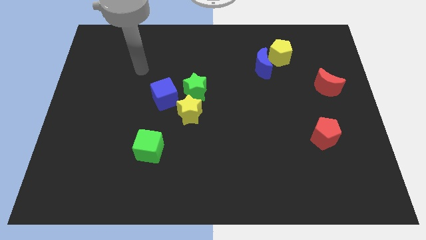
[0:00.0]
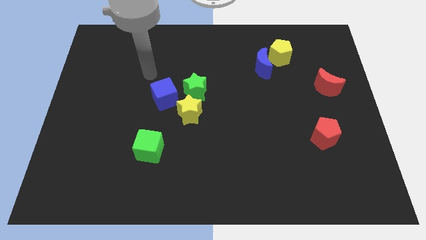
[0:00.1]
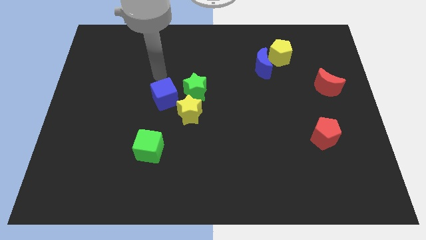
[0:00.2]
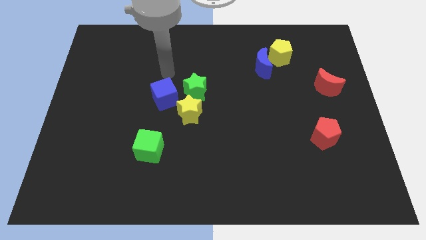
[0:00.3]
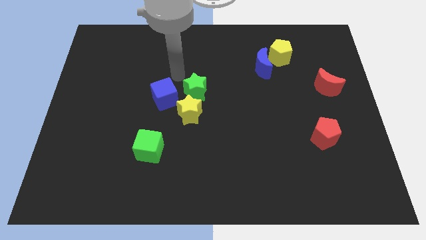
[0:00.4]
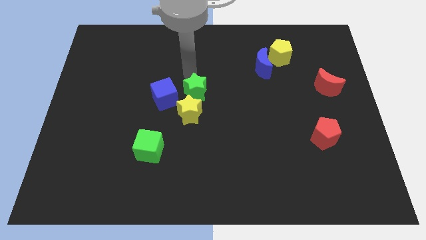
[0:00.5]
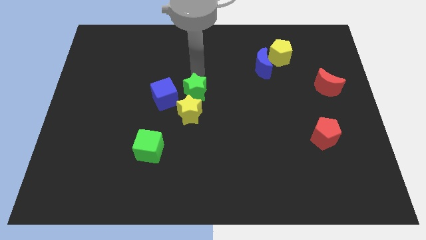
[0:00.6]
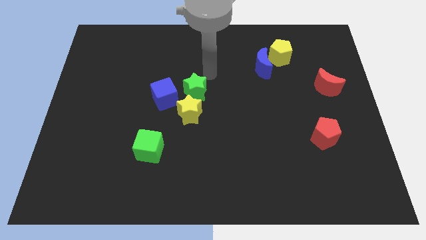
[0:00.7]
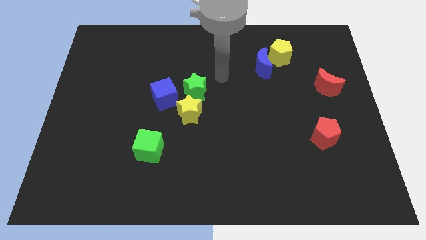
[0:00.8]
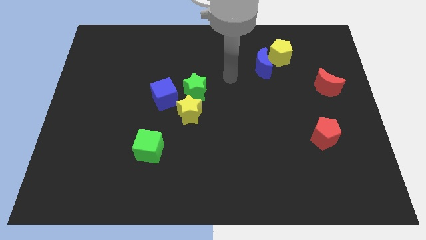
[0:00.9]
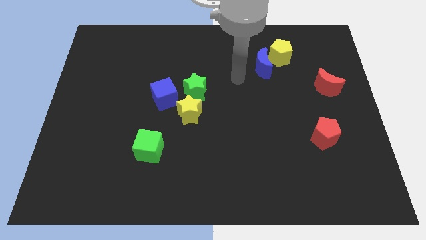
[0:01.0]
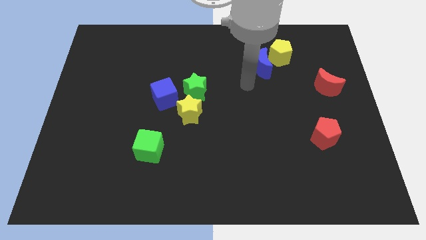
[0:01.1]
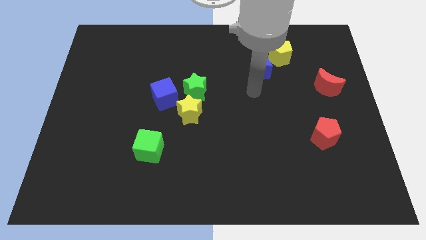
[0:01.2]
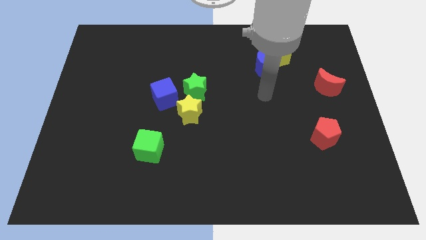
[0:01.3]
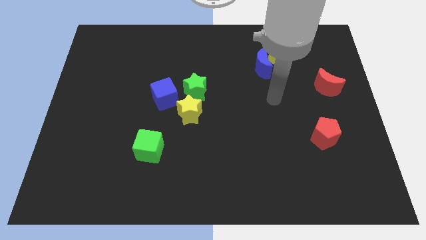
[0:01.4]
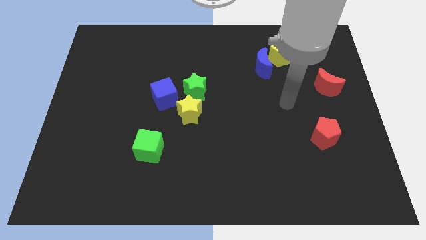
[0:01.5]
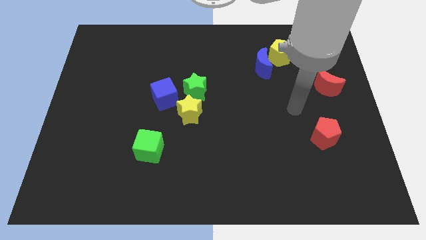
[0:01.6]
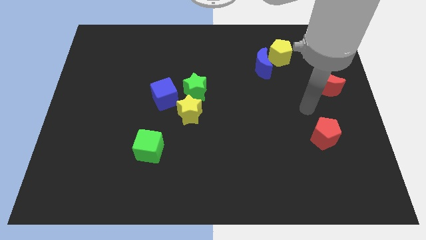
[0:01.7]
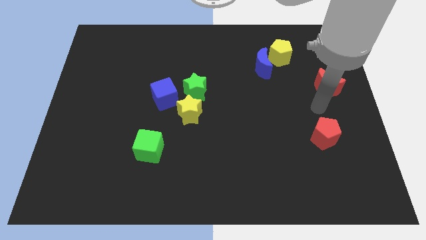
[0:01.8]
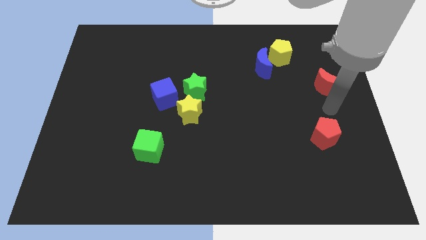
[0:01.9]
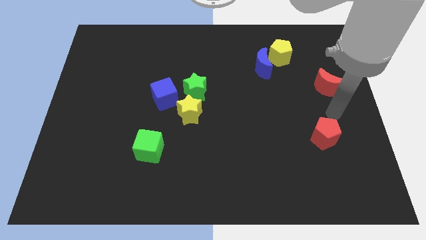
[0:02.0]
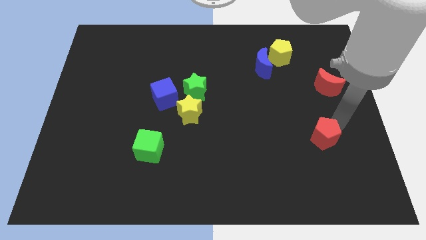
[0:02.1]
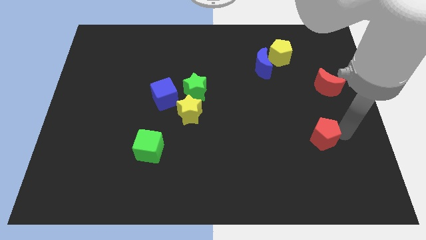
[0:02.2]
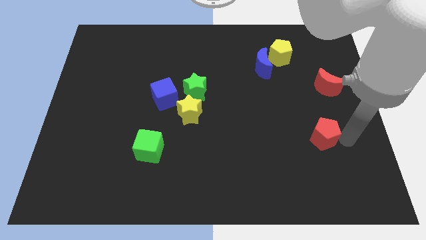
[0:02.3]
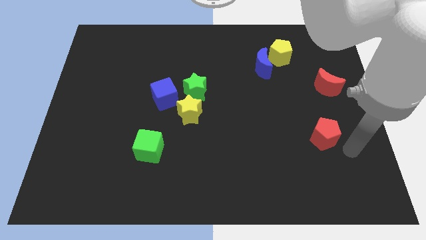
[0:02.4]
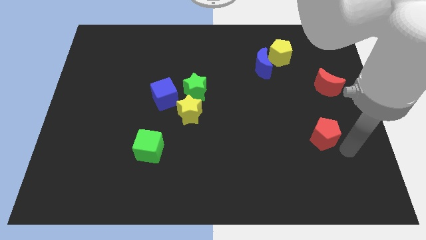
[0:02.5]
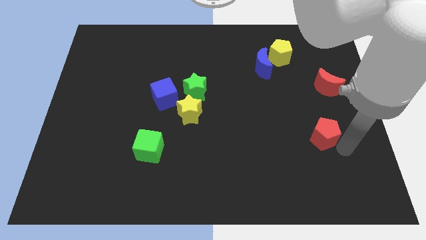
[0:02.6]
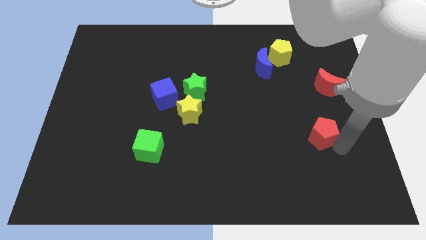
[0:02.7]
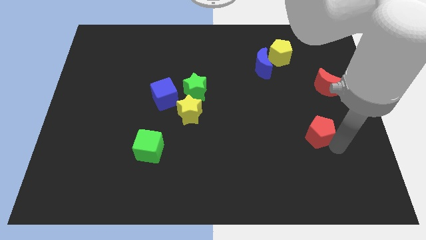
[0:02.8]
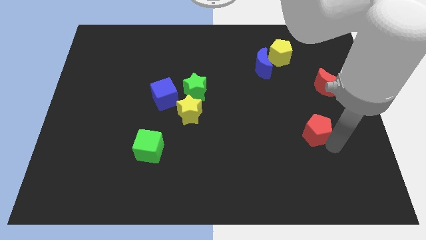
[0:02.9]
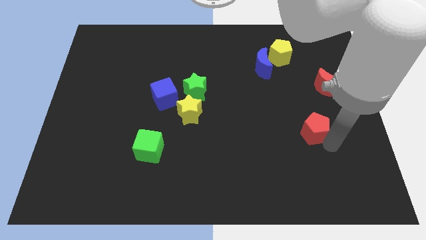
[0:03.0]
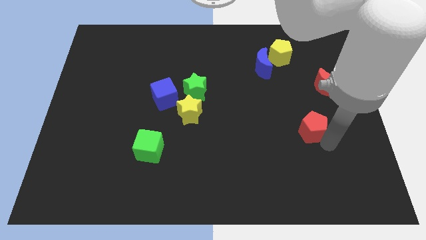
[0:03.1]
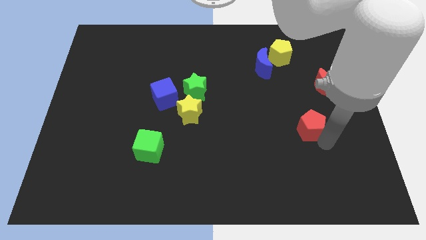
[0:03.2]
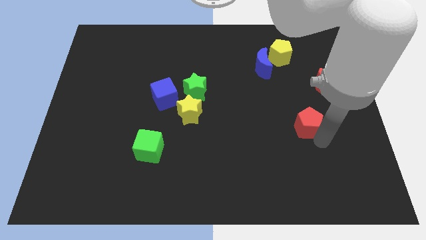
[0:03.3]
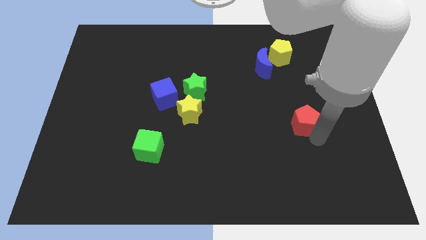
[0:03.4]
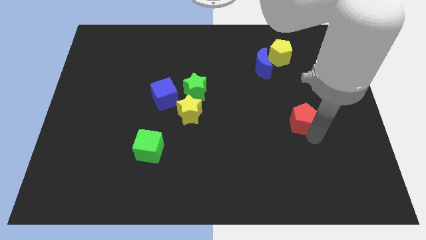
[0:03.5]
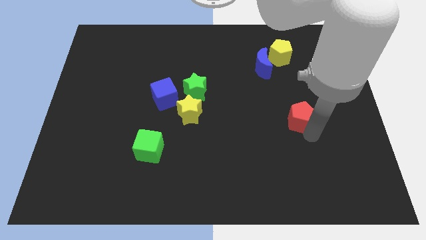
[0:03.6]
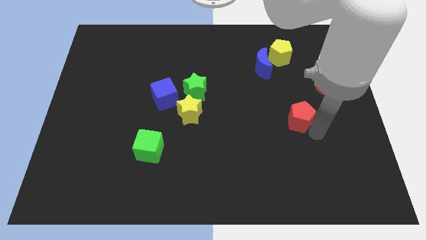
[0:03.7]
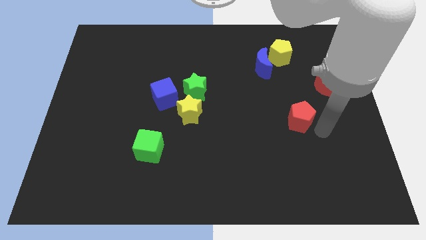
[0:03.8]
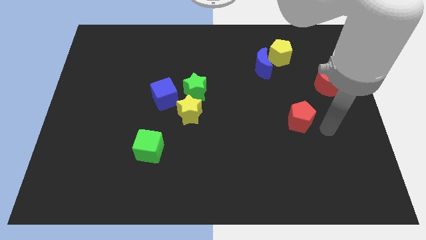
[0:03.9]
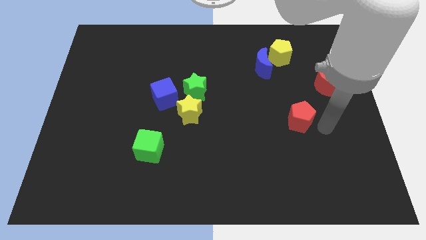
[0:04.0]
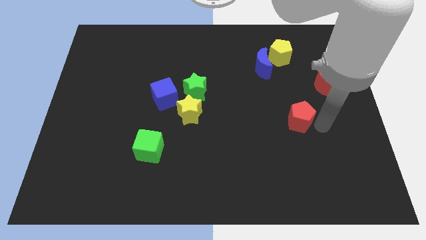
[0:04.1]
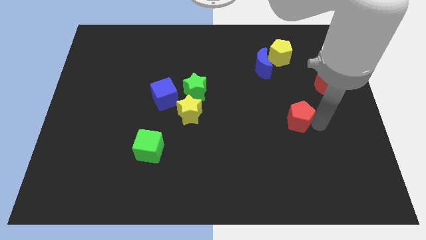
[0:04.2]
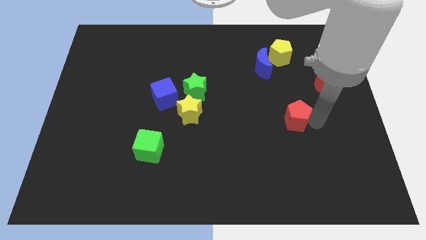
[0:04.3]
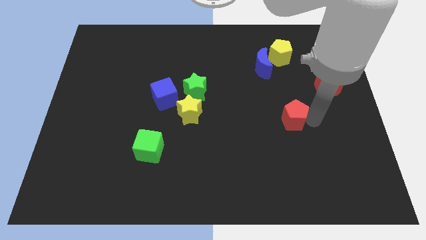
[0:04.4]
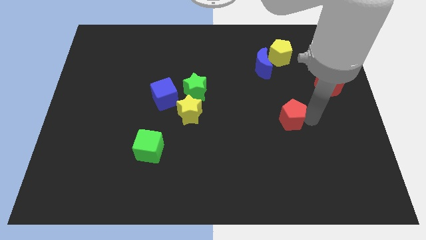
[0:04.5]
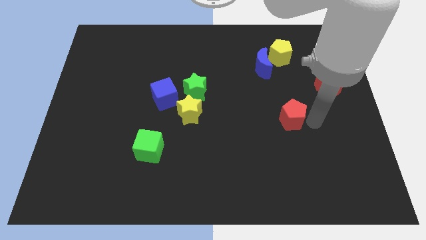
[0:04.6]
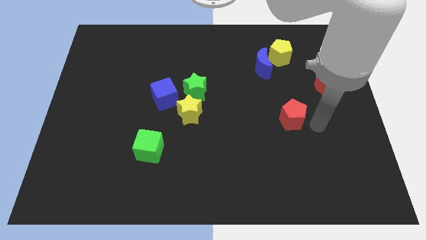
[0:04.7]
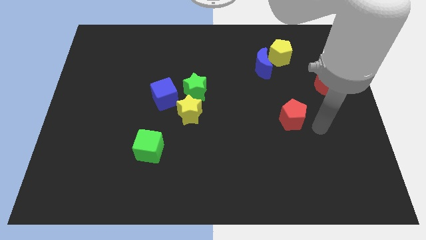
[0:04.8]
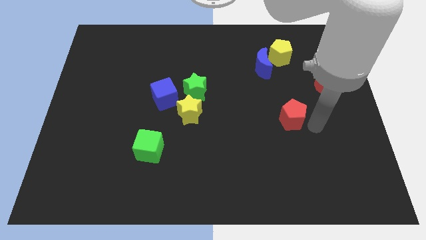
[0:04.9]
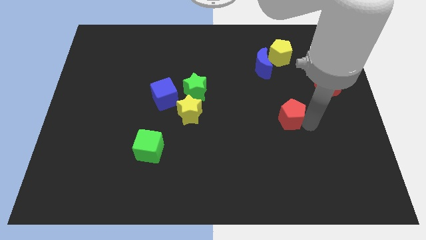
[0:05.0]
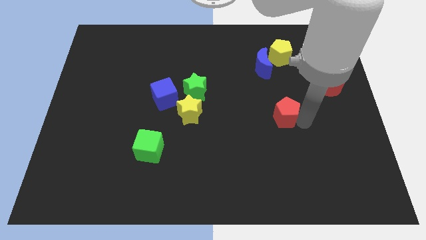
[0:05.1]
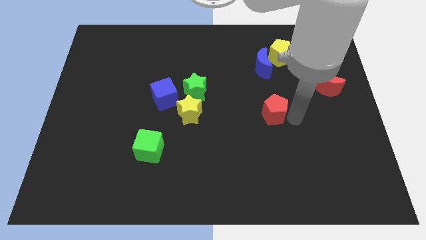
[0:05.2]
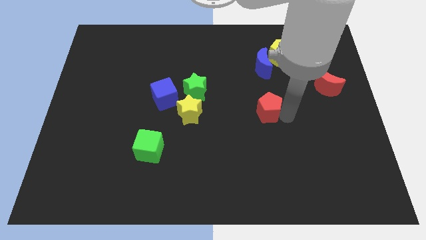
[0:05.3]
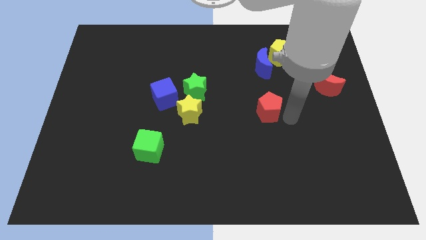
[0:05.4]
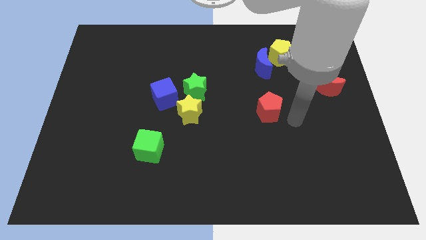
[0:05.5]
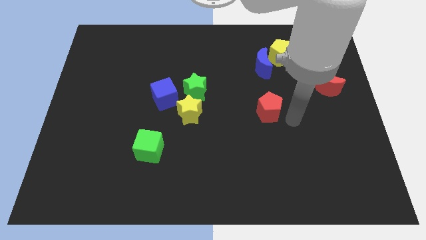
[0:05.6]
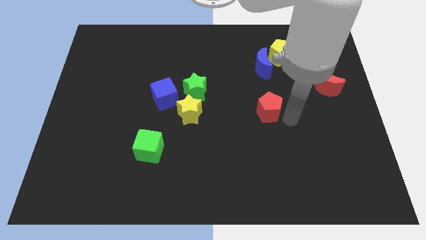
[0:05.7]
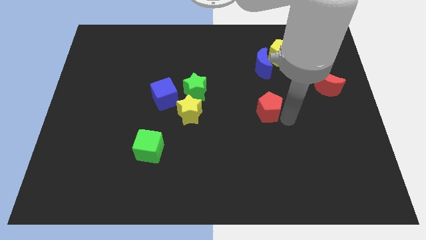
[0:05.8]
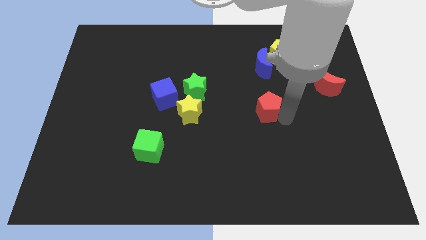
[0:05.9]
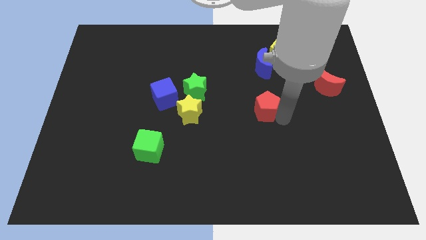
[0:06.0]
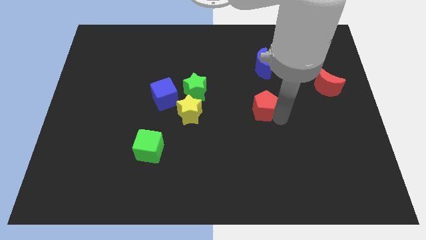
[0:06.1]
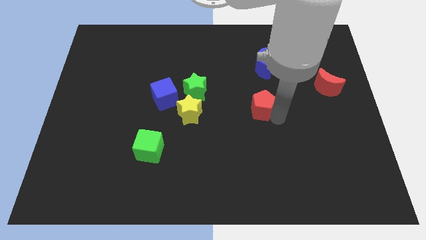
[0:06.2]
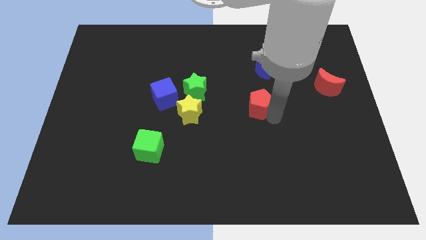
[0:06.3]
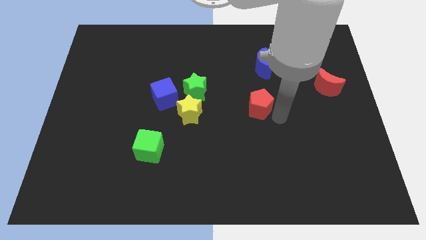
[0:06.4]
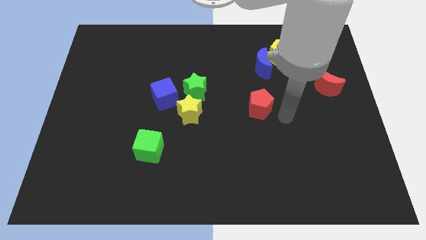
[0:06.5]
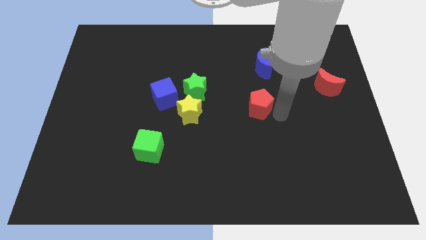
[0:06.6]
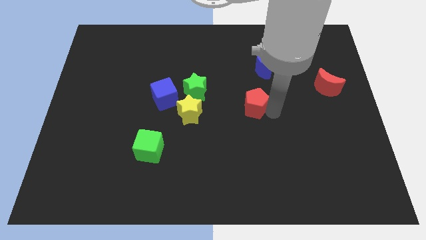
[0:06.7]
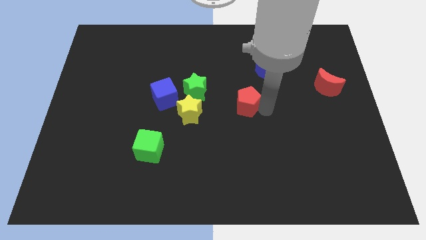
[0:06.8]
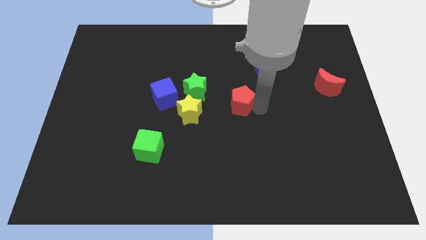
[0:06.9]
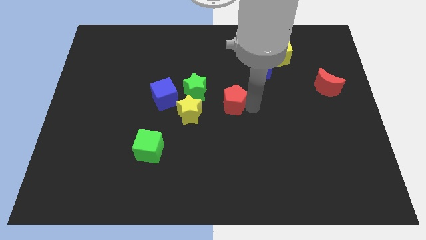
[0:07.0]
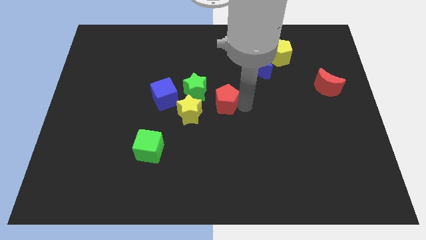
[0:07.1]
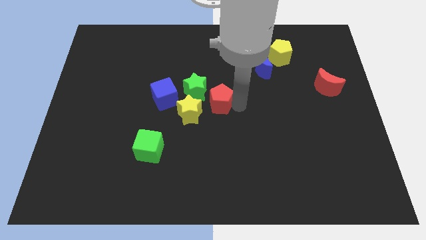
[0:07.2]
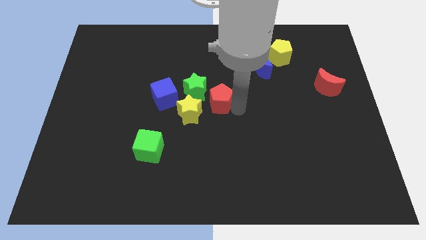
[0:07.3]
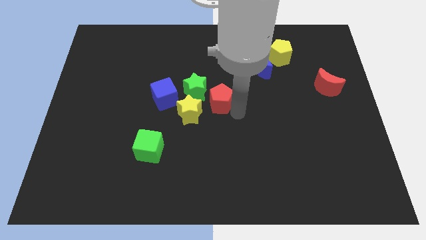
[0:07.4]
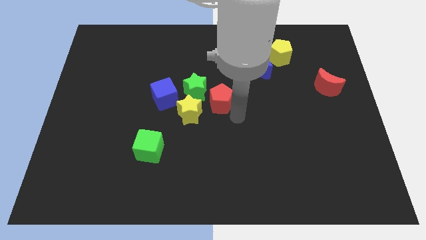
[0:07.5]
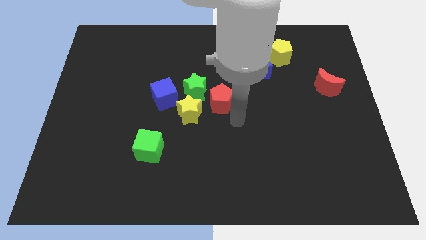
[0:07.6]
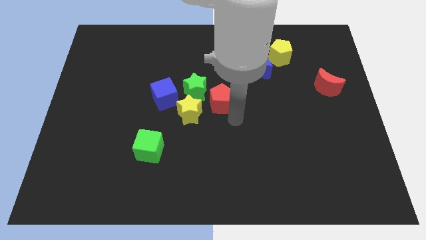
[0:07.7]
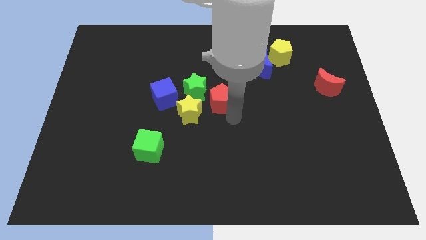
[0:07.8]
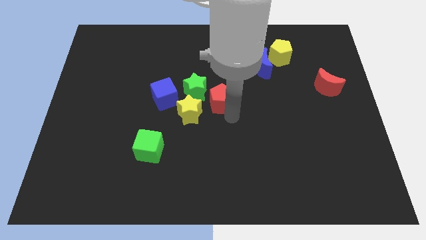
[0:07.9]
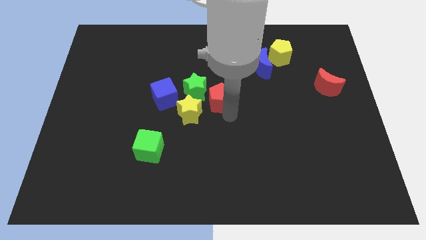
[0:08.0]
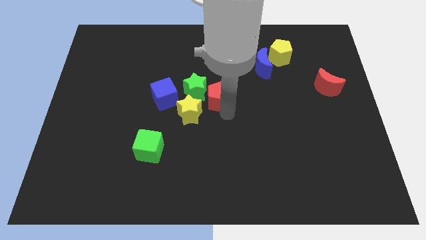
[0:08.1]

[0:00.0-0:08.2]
move the red pentagon next to the green star

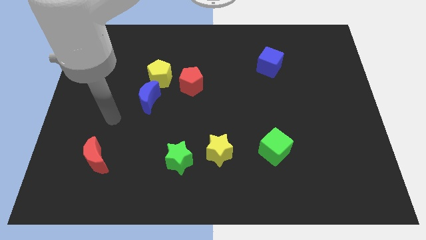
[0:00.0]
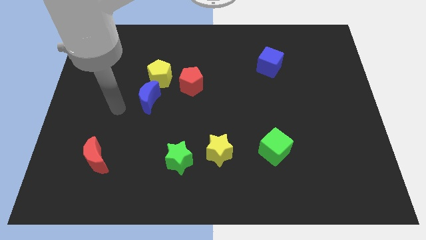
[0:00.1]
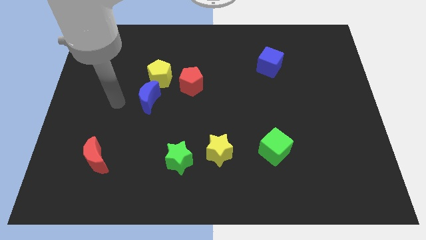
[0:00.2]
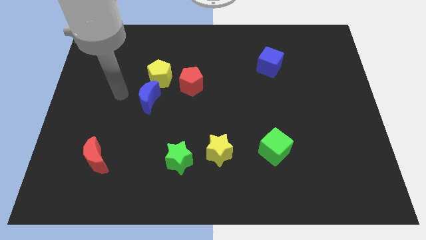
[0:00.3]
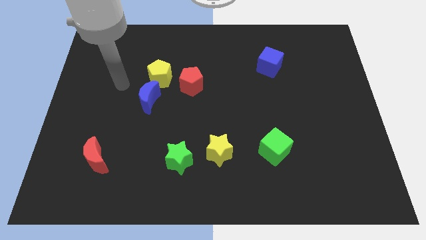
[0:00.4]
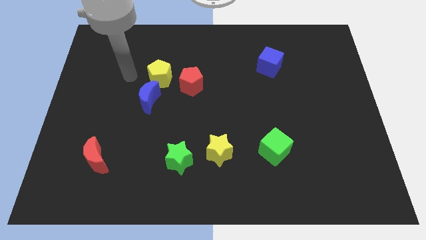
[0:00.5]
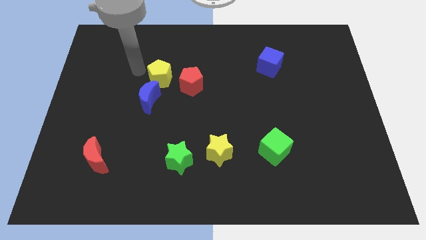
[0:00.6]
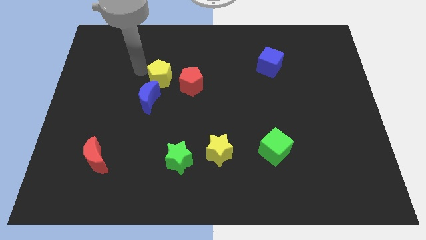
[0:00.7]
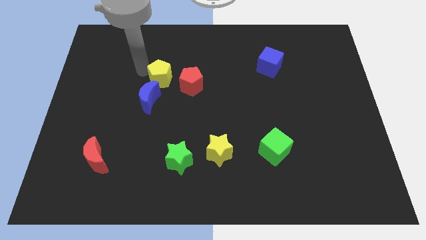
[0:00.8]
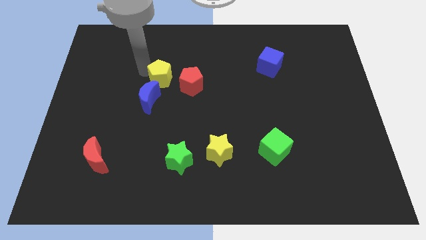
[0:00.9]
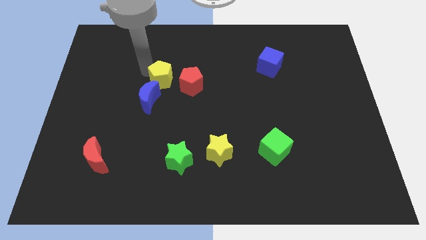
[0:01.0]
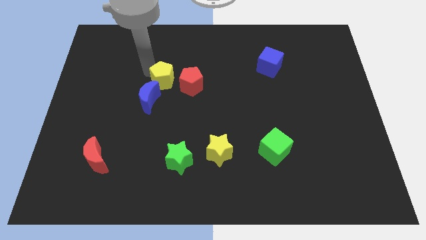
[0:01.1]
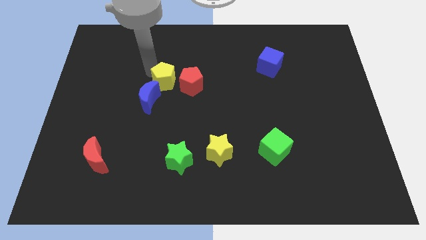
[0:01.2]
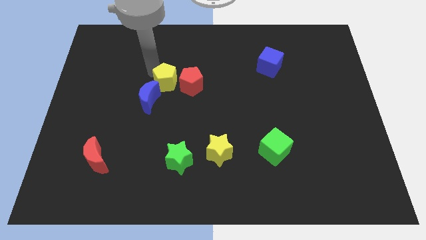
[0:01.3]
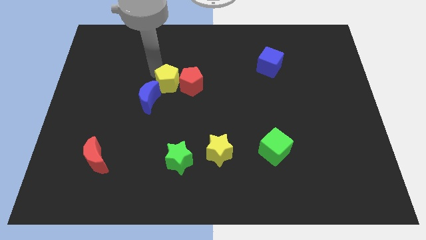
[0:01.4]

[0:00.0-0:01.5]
slide the yellow pentagon to the red pentagon
